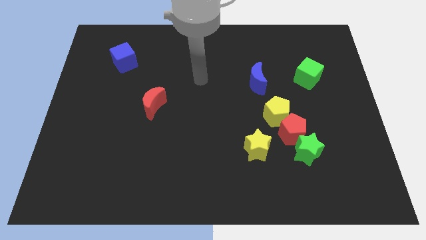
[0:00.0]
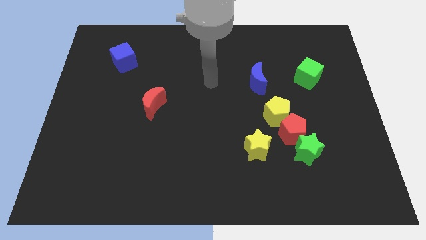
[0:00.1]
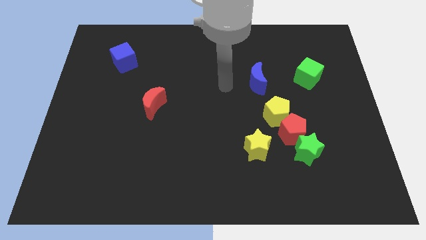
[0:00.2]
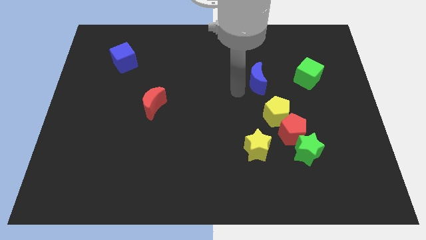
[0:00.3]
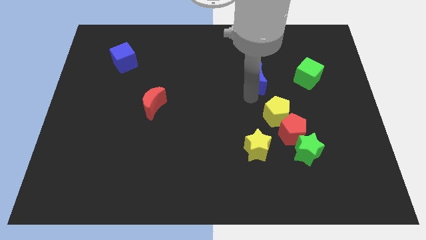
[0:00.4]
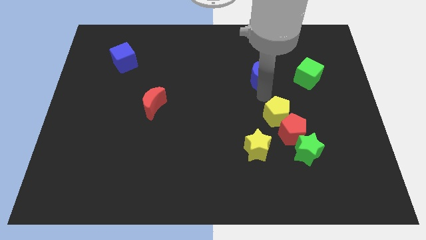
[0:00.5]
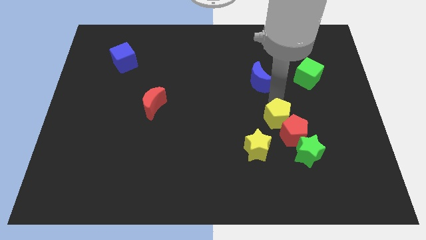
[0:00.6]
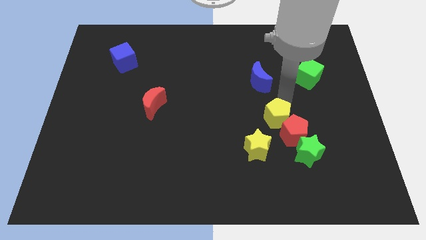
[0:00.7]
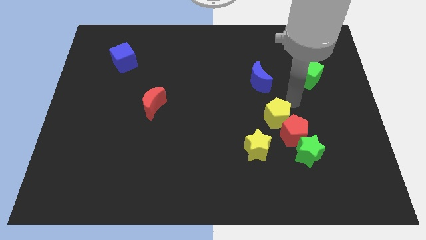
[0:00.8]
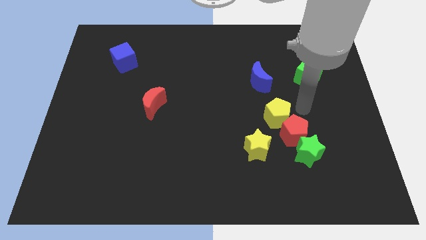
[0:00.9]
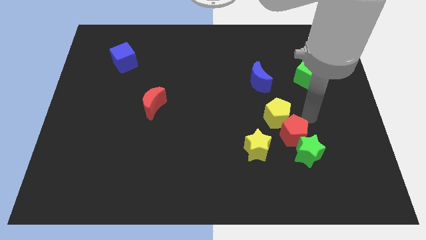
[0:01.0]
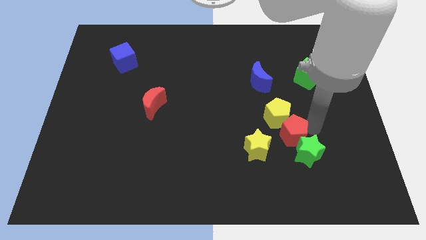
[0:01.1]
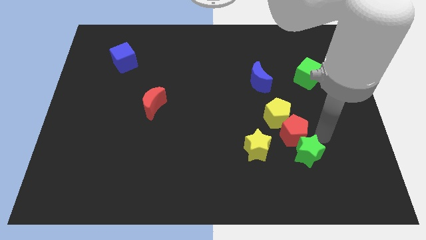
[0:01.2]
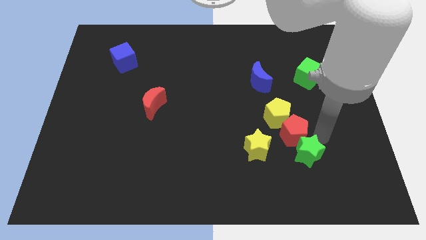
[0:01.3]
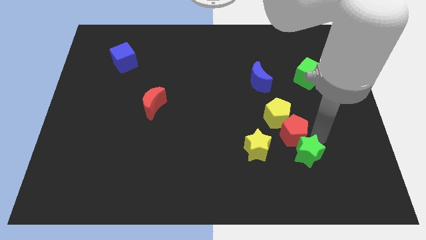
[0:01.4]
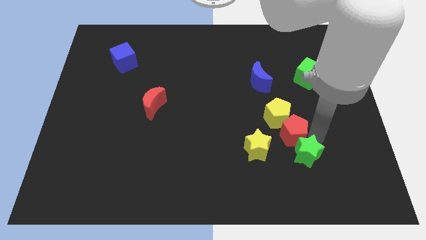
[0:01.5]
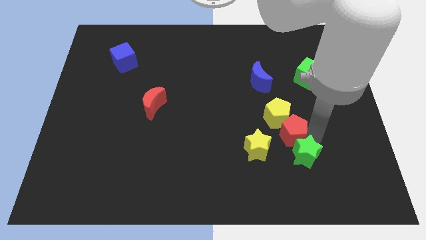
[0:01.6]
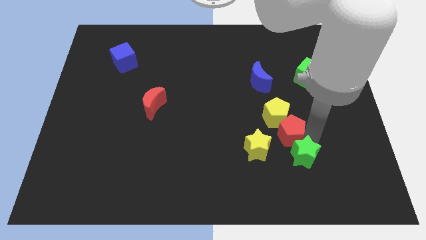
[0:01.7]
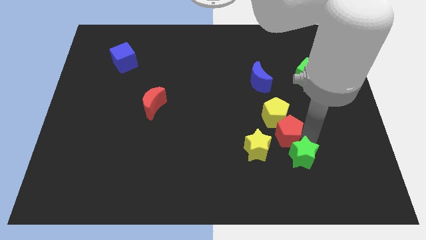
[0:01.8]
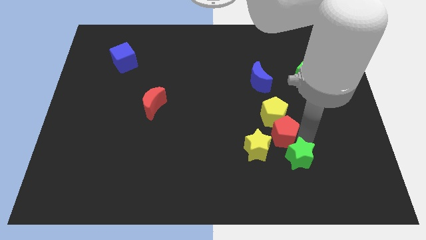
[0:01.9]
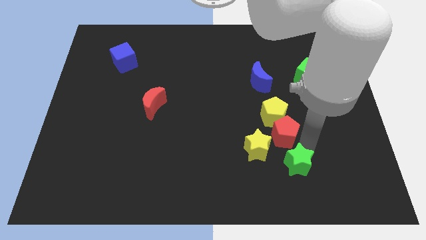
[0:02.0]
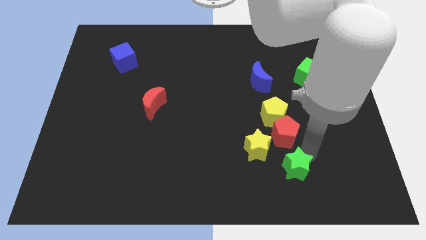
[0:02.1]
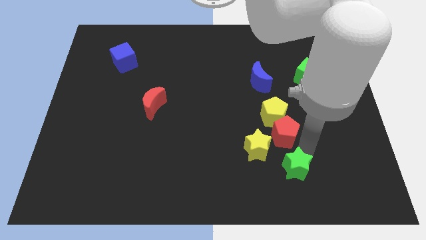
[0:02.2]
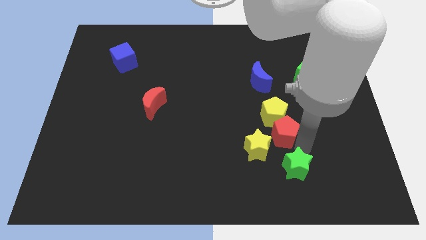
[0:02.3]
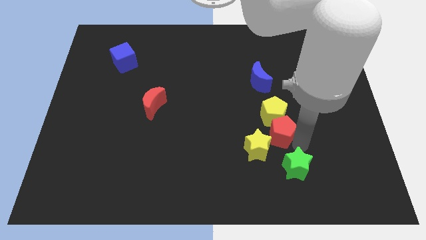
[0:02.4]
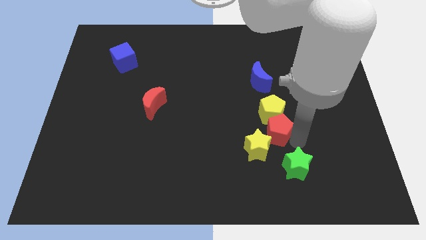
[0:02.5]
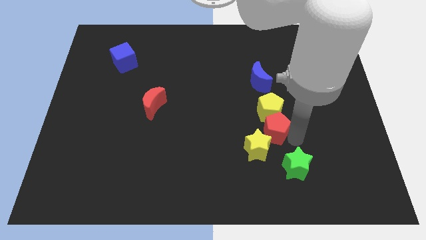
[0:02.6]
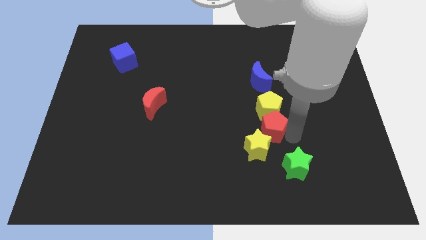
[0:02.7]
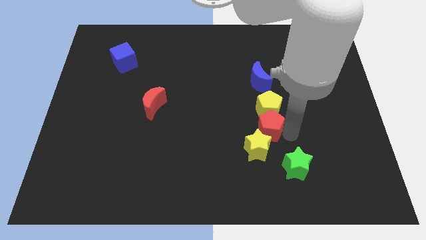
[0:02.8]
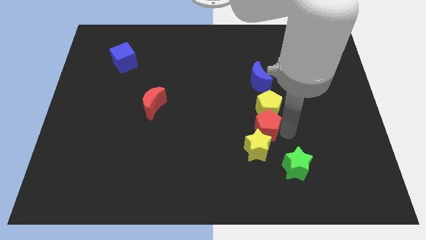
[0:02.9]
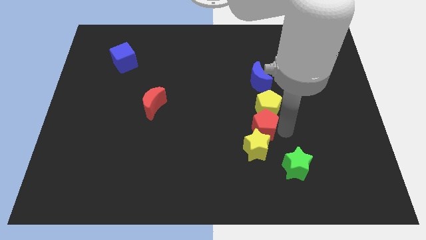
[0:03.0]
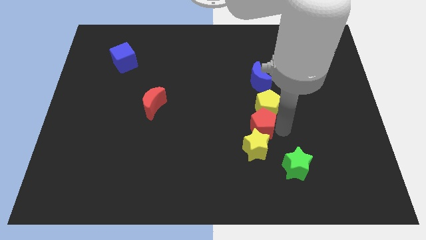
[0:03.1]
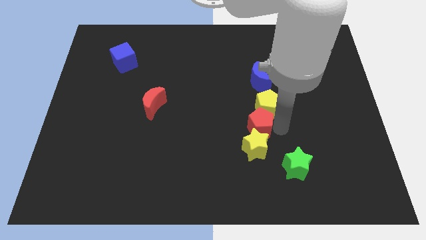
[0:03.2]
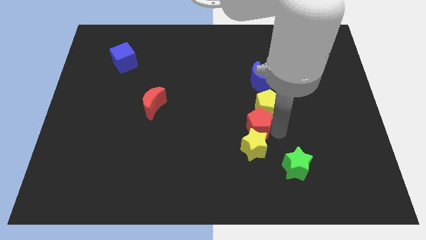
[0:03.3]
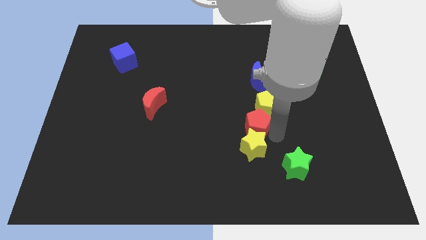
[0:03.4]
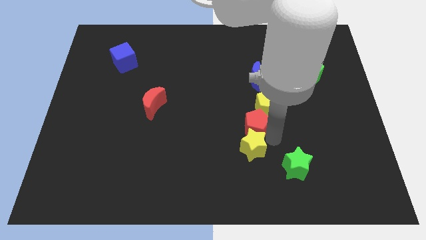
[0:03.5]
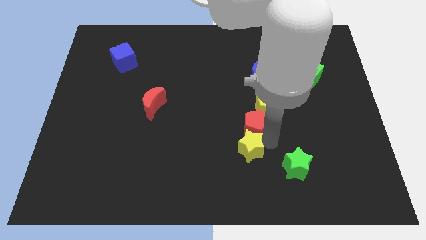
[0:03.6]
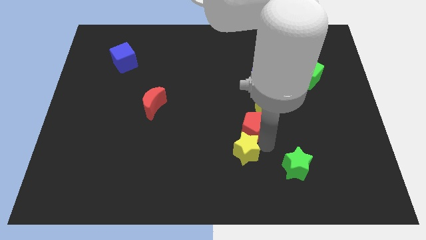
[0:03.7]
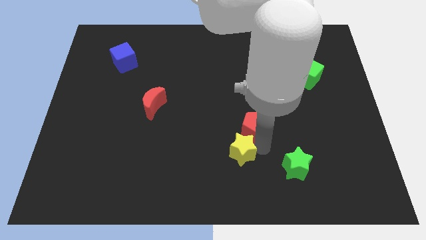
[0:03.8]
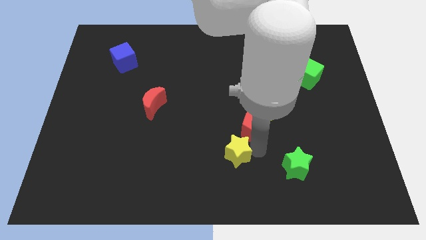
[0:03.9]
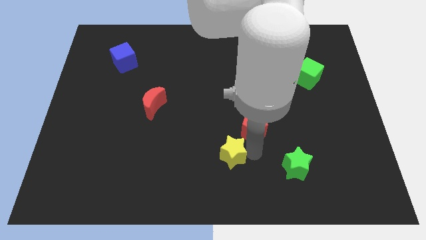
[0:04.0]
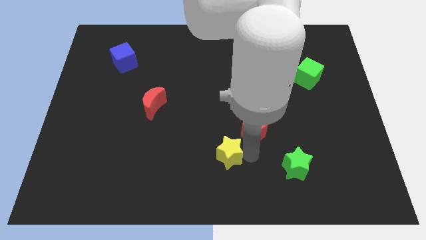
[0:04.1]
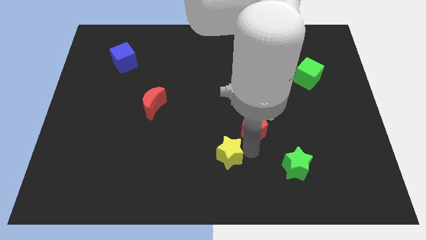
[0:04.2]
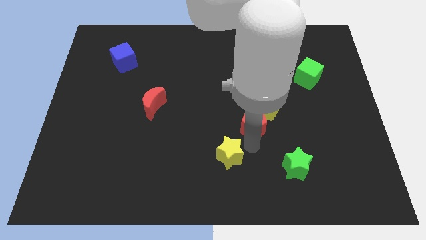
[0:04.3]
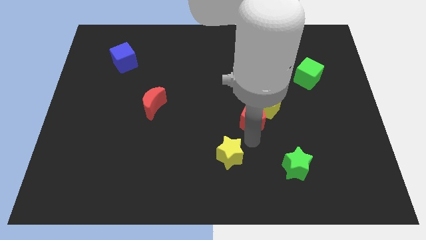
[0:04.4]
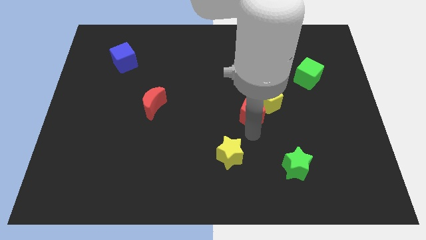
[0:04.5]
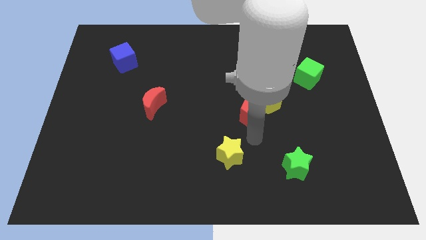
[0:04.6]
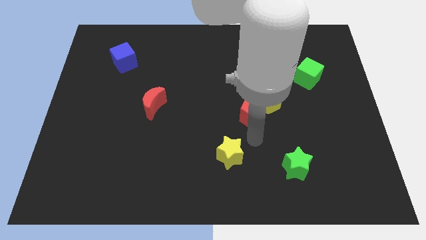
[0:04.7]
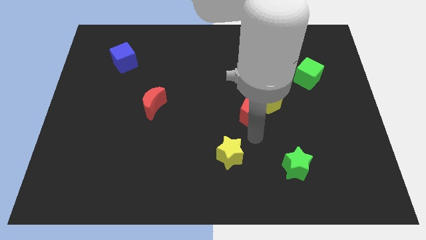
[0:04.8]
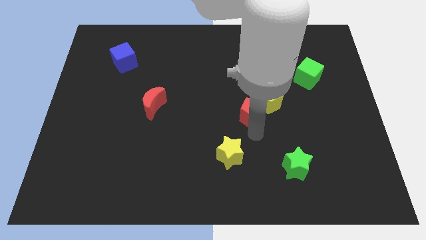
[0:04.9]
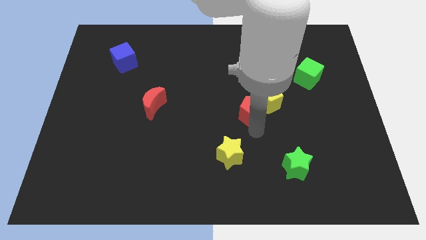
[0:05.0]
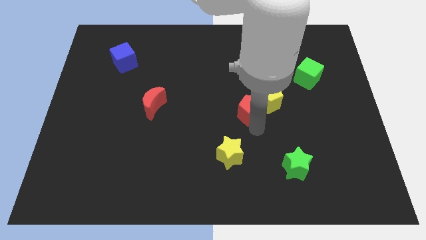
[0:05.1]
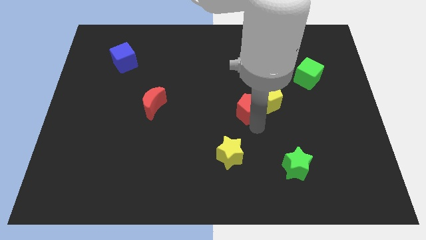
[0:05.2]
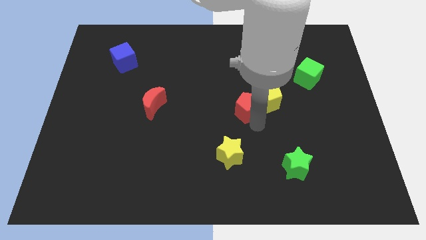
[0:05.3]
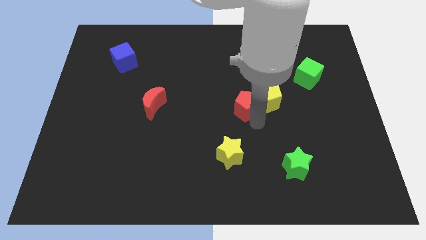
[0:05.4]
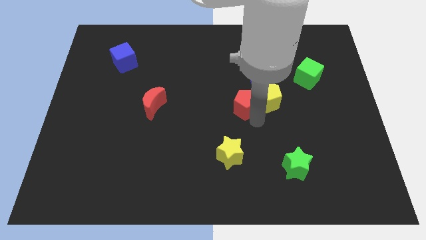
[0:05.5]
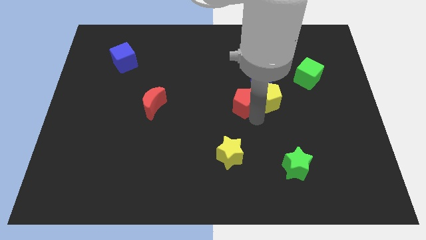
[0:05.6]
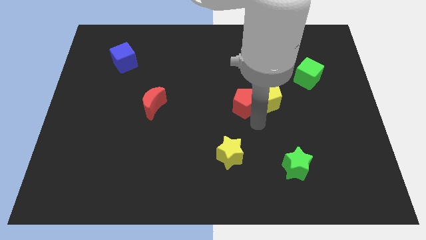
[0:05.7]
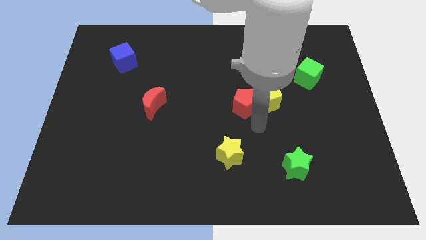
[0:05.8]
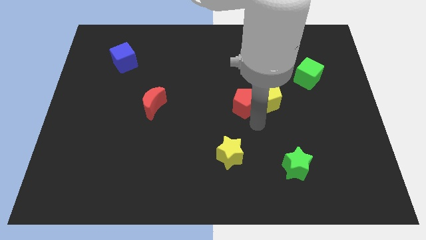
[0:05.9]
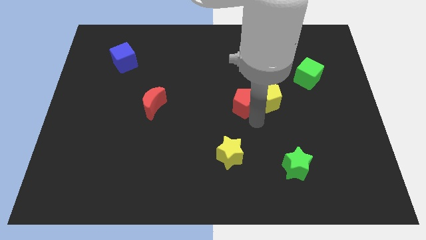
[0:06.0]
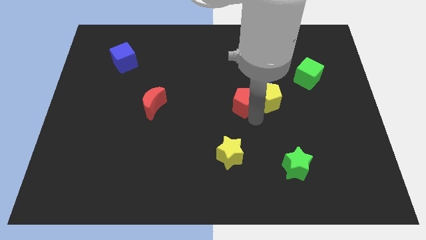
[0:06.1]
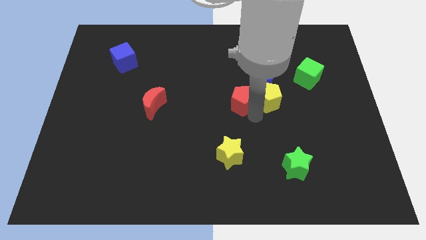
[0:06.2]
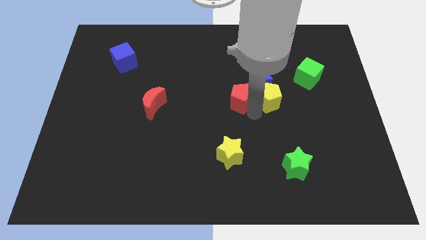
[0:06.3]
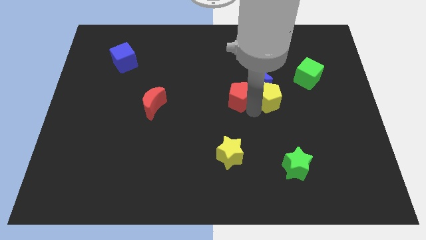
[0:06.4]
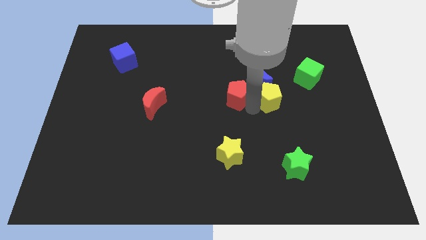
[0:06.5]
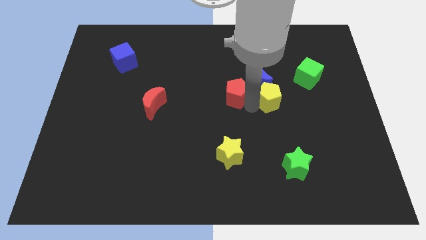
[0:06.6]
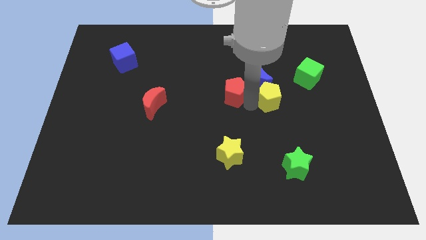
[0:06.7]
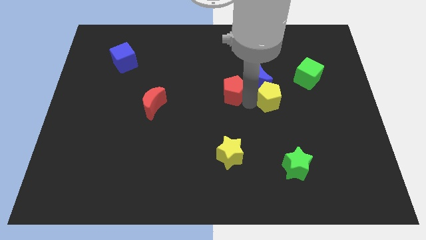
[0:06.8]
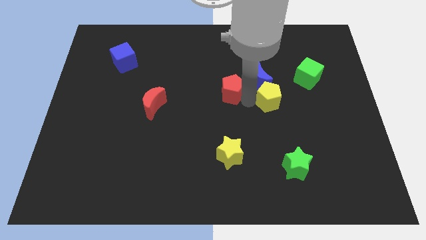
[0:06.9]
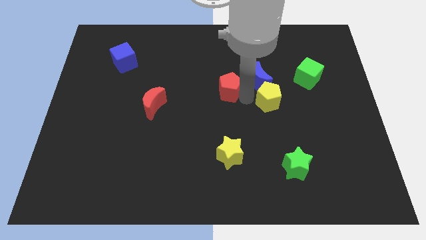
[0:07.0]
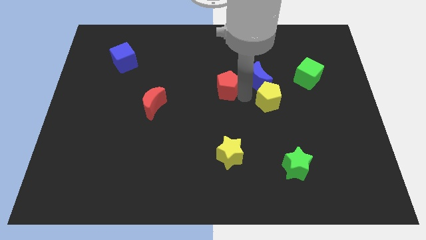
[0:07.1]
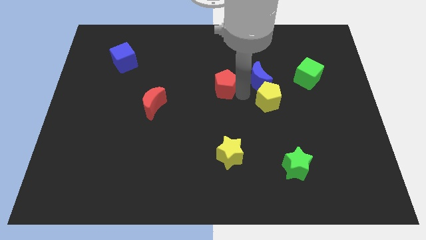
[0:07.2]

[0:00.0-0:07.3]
push the red pentagon upwards and left diagonally
